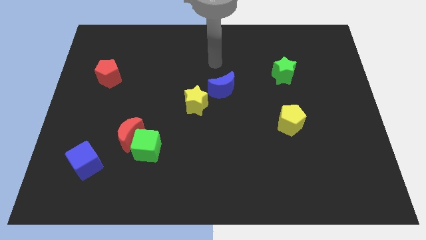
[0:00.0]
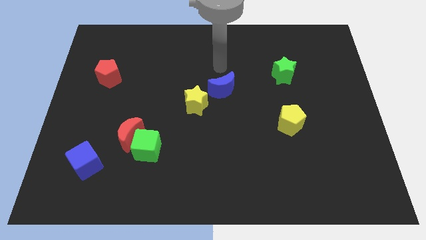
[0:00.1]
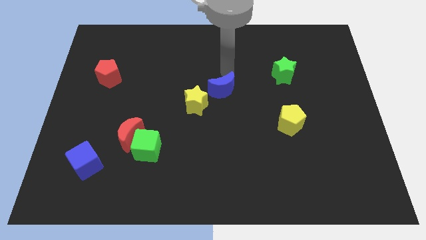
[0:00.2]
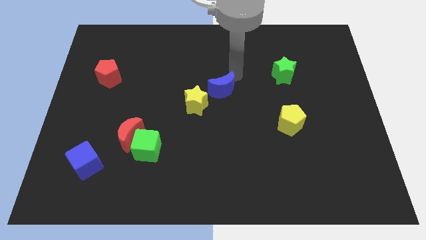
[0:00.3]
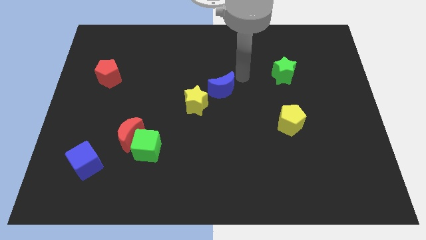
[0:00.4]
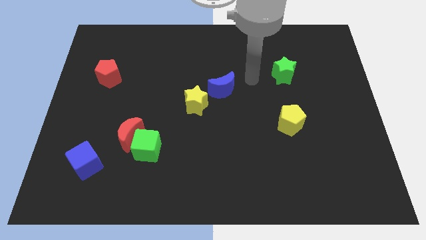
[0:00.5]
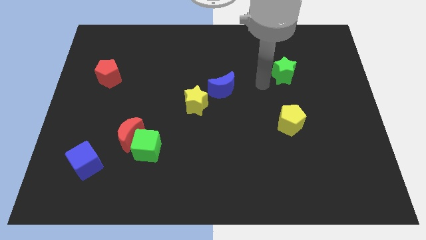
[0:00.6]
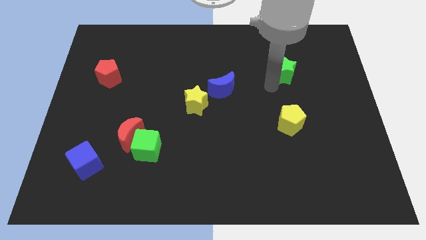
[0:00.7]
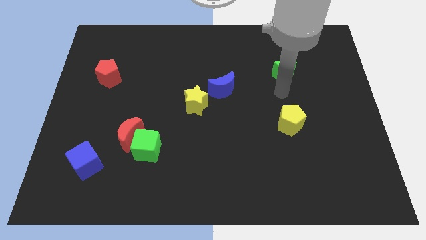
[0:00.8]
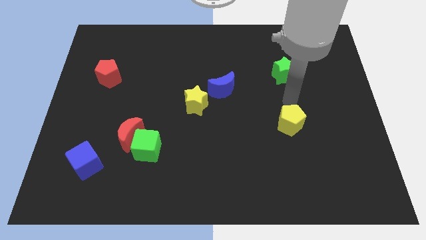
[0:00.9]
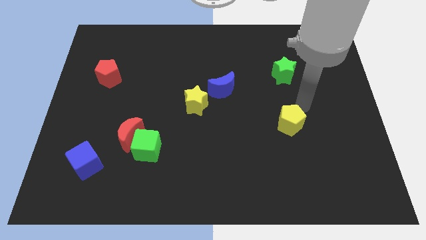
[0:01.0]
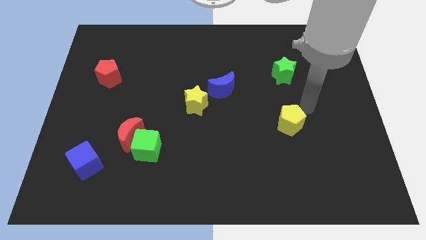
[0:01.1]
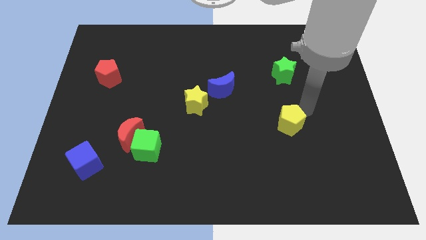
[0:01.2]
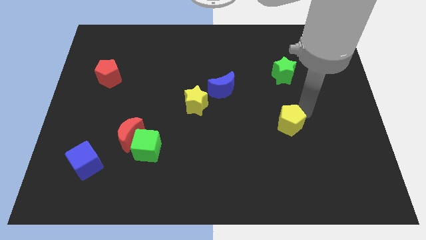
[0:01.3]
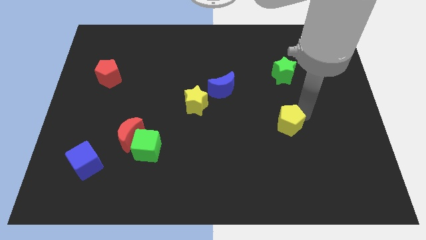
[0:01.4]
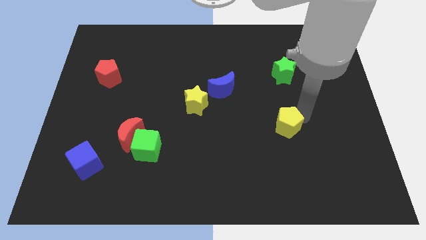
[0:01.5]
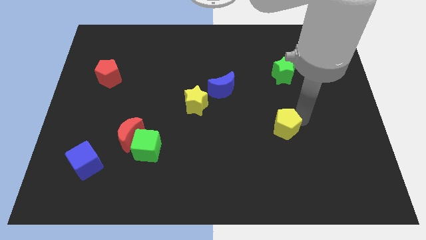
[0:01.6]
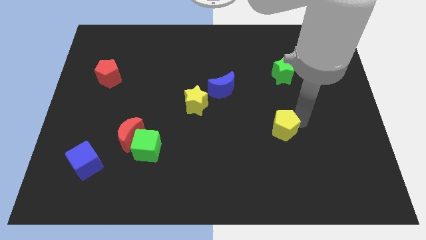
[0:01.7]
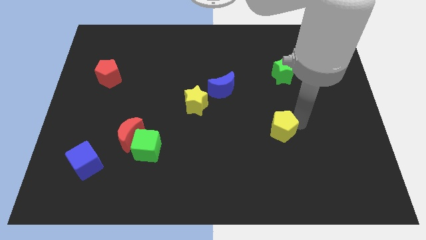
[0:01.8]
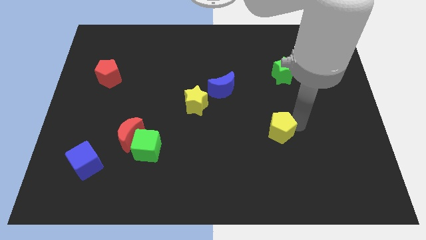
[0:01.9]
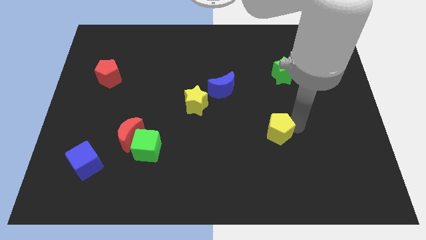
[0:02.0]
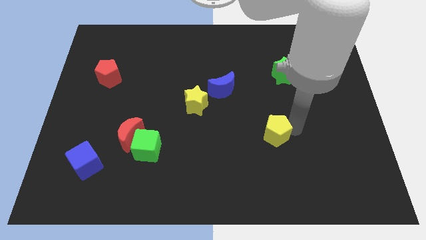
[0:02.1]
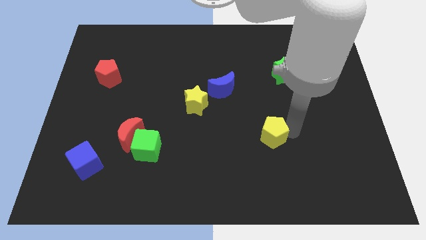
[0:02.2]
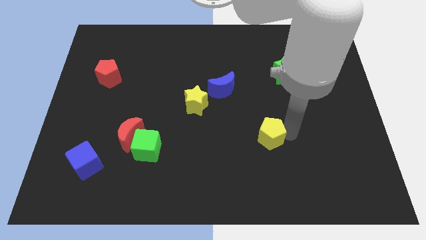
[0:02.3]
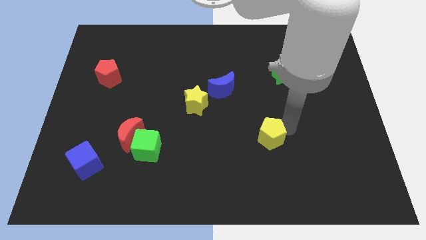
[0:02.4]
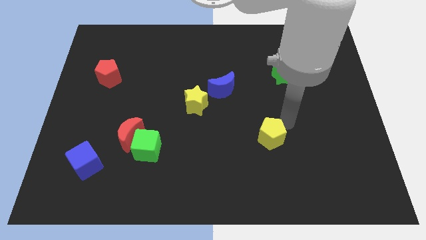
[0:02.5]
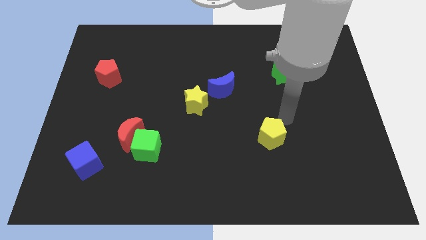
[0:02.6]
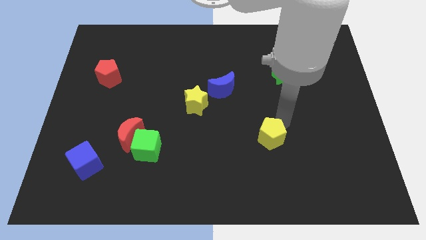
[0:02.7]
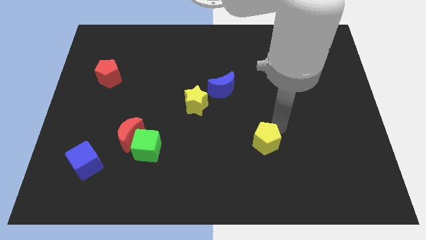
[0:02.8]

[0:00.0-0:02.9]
slide the yellow pentagon a bit downwards and left diagonally

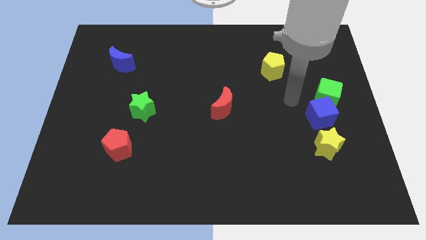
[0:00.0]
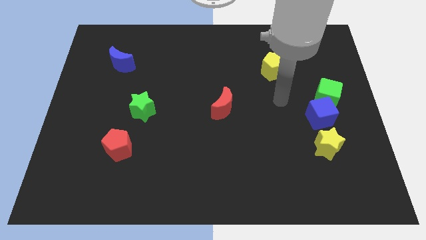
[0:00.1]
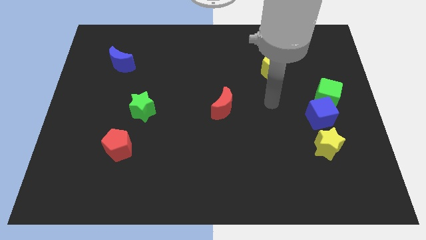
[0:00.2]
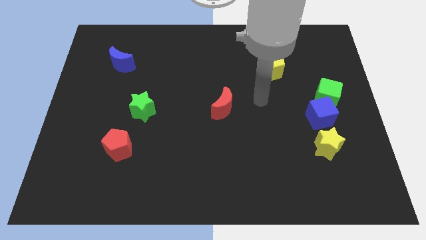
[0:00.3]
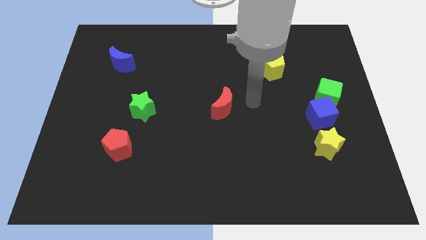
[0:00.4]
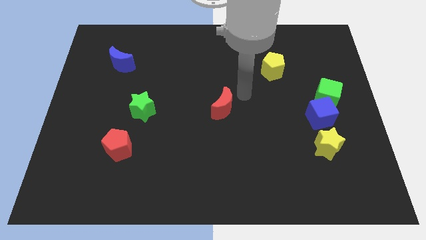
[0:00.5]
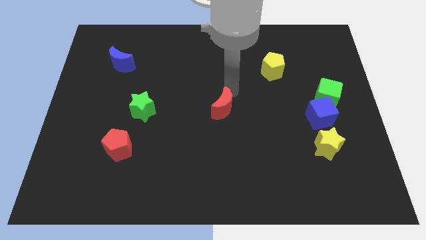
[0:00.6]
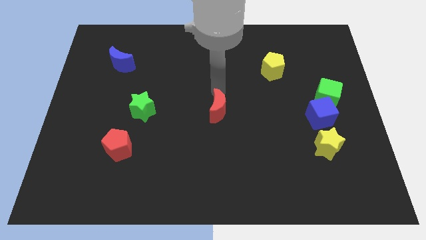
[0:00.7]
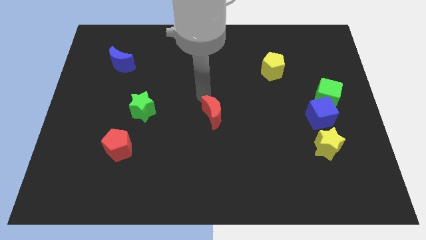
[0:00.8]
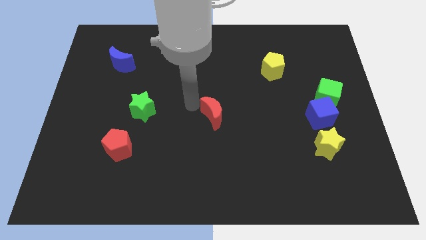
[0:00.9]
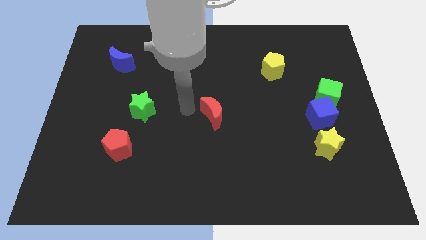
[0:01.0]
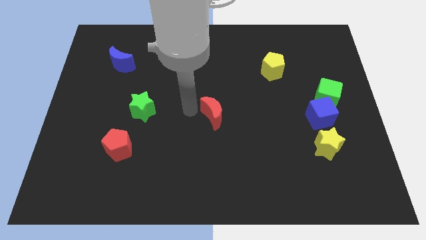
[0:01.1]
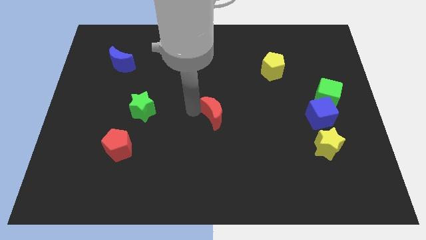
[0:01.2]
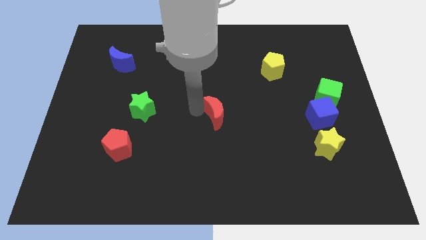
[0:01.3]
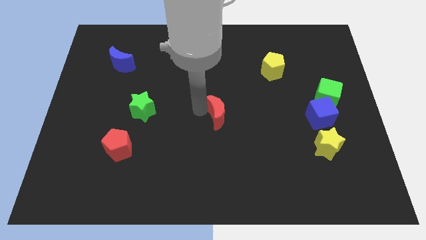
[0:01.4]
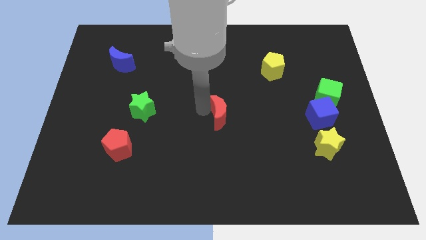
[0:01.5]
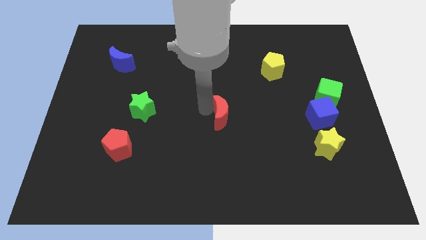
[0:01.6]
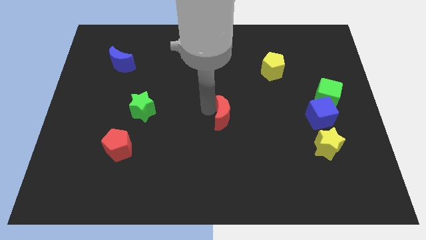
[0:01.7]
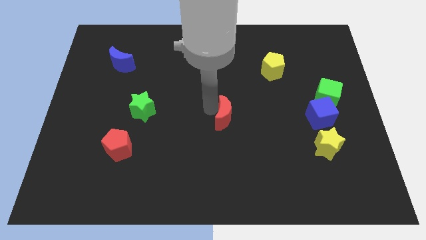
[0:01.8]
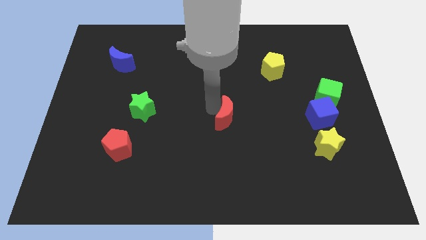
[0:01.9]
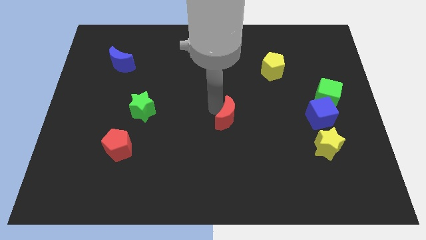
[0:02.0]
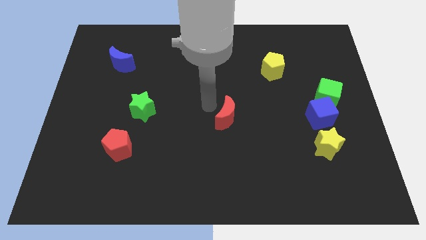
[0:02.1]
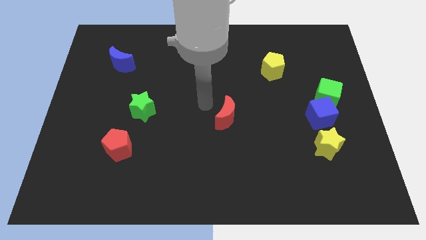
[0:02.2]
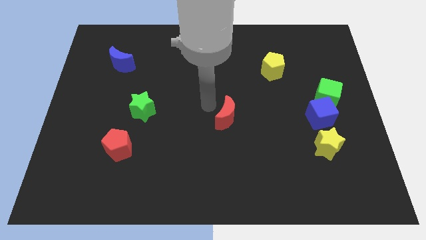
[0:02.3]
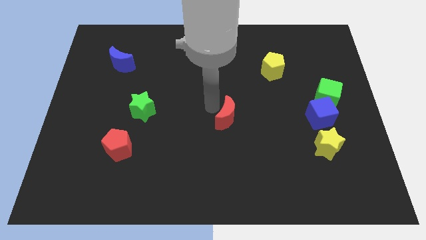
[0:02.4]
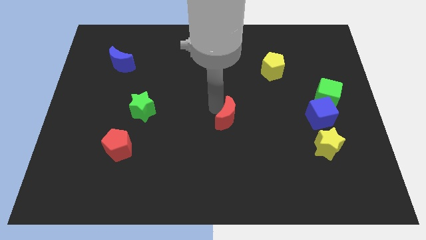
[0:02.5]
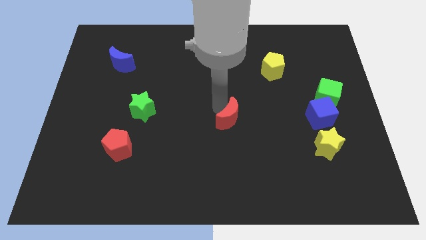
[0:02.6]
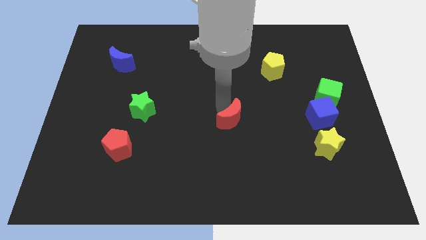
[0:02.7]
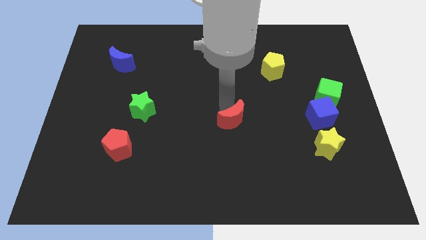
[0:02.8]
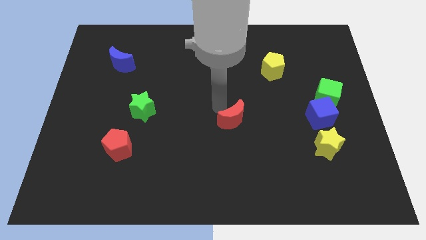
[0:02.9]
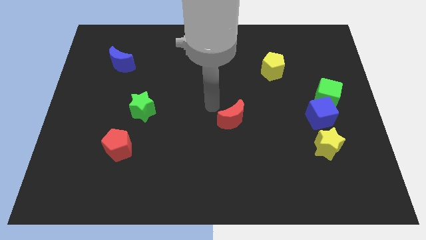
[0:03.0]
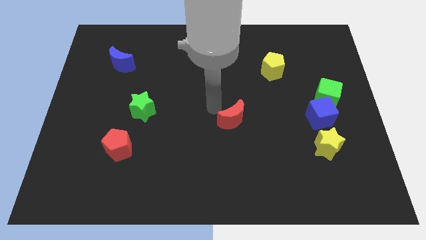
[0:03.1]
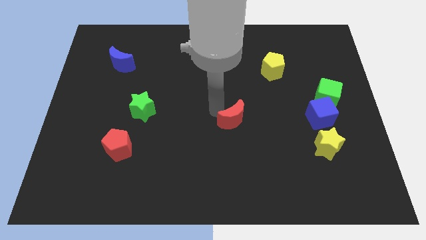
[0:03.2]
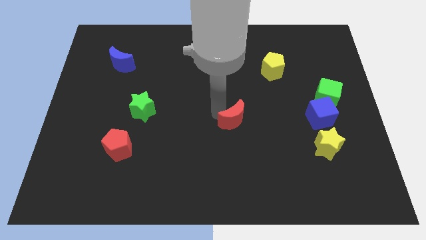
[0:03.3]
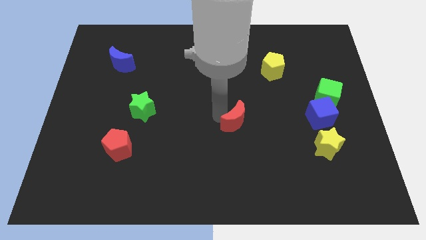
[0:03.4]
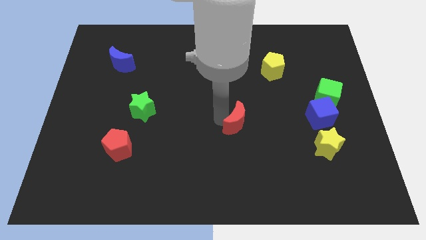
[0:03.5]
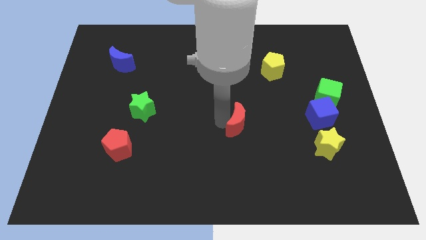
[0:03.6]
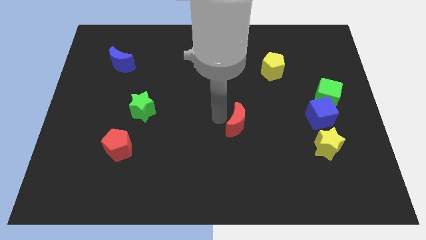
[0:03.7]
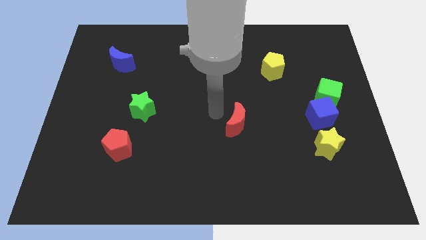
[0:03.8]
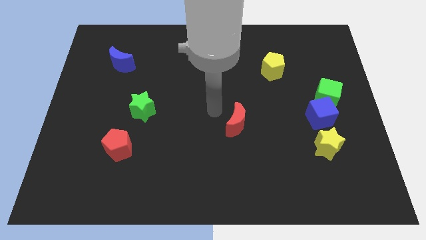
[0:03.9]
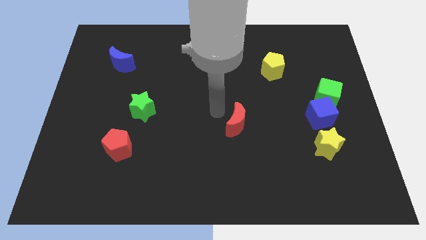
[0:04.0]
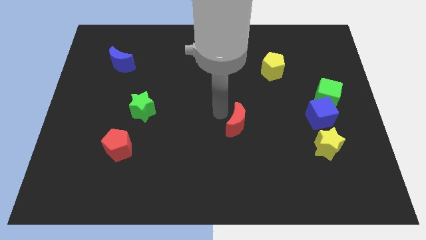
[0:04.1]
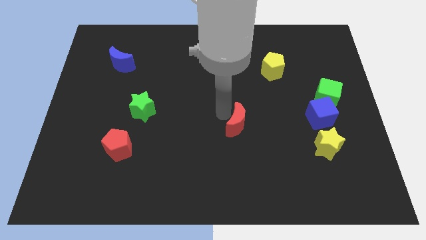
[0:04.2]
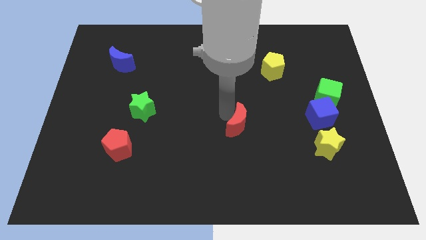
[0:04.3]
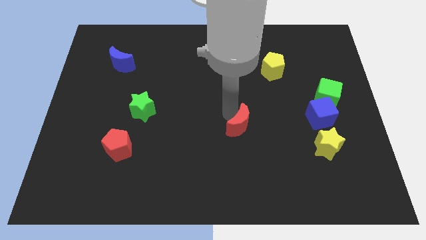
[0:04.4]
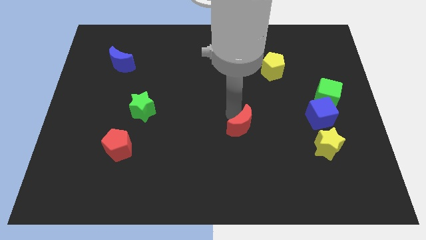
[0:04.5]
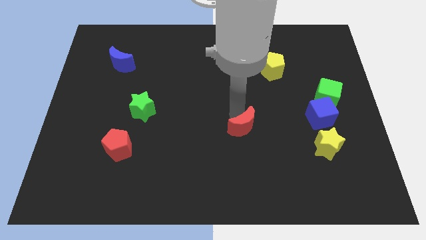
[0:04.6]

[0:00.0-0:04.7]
slightly slide the red moon down and then to the right

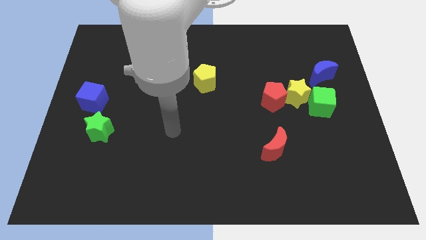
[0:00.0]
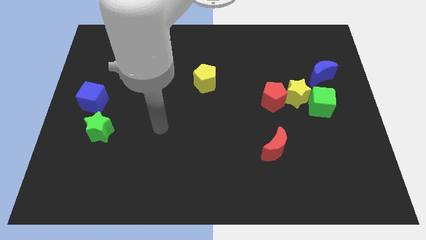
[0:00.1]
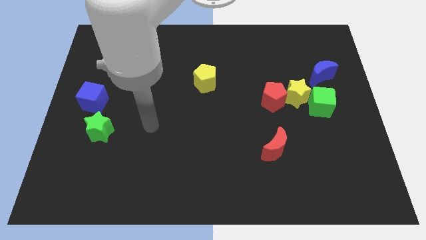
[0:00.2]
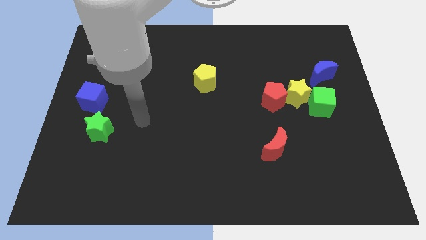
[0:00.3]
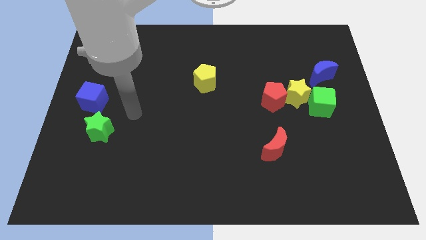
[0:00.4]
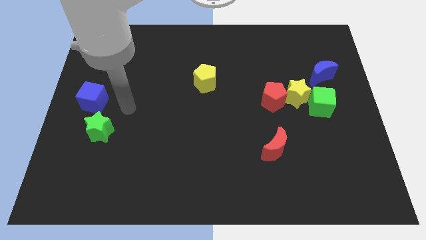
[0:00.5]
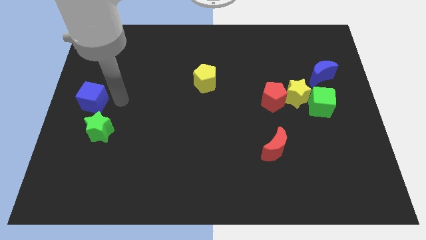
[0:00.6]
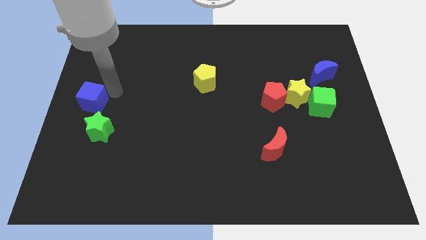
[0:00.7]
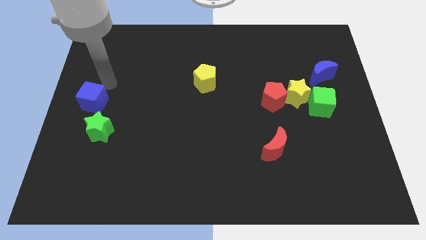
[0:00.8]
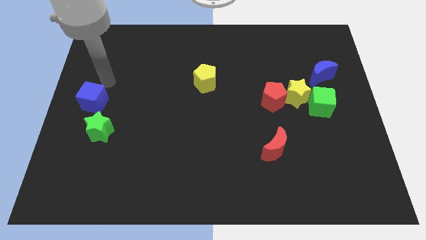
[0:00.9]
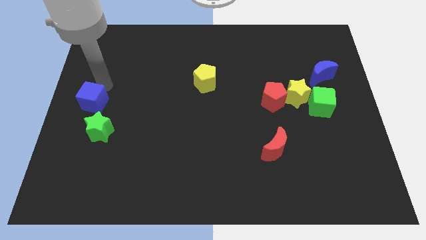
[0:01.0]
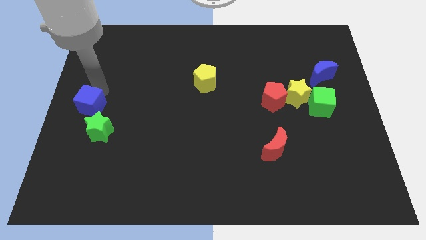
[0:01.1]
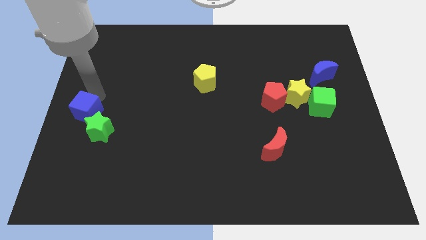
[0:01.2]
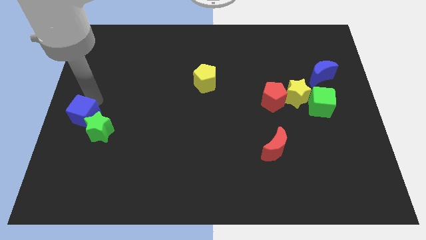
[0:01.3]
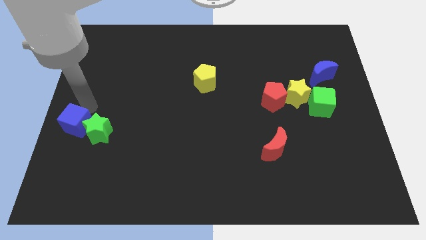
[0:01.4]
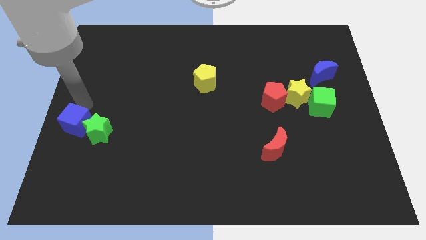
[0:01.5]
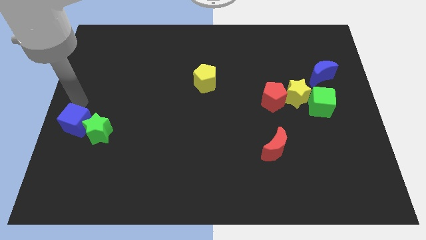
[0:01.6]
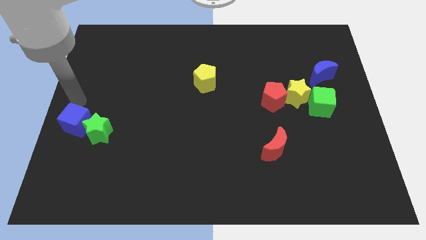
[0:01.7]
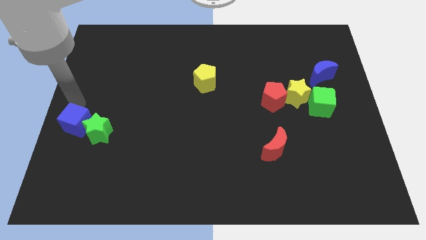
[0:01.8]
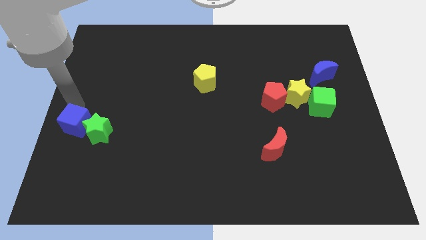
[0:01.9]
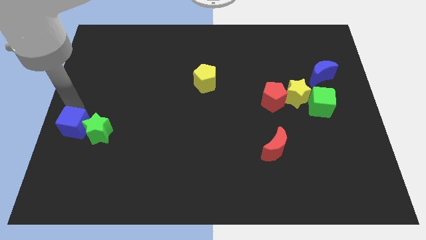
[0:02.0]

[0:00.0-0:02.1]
move the blue cube slightly downwards
